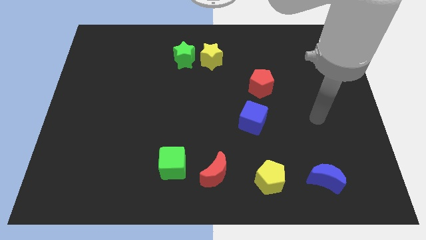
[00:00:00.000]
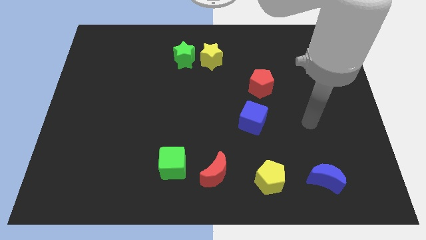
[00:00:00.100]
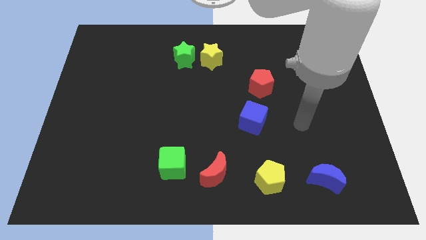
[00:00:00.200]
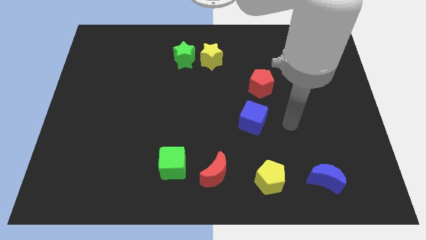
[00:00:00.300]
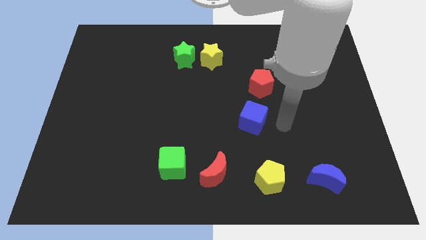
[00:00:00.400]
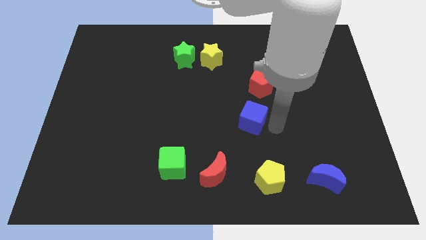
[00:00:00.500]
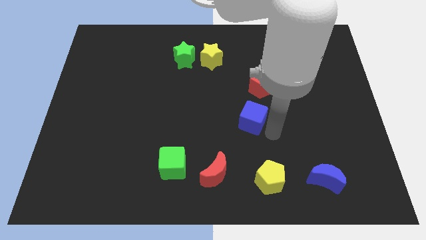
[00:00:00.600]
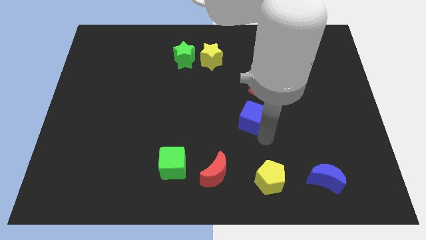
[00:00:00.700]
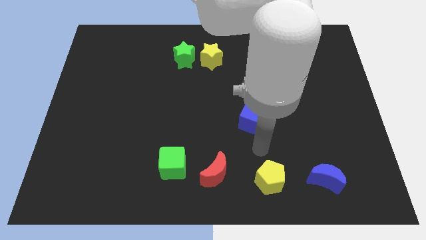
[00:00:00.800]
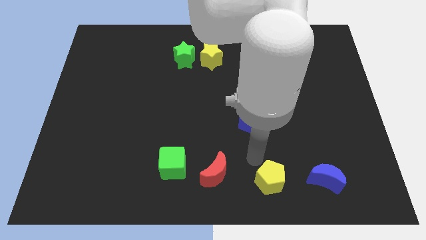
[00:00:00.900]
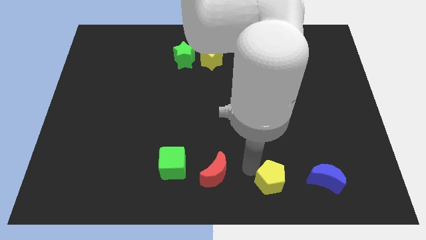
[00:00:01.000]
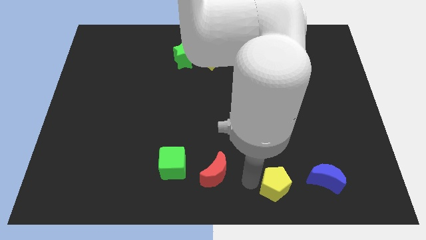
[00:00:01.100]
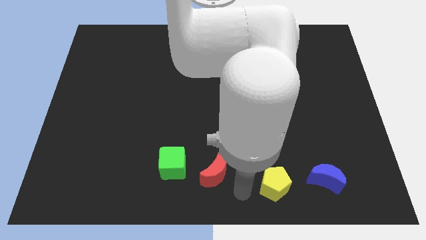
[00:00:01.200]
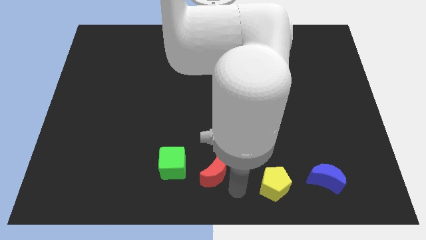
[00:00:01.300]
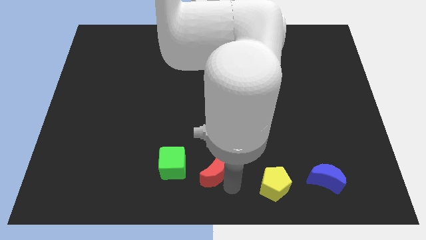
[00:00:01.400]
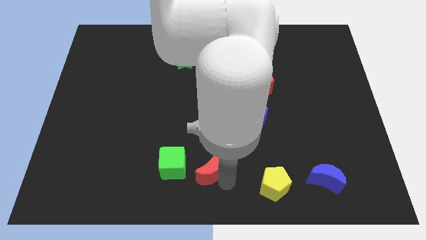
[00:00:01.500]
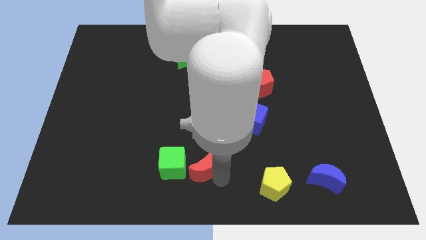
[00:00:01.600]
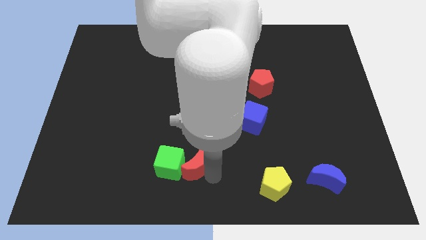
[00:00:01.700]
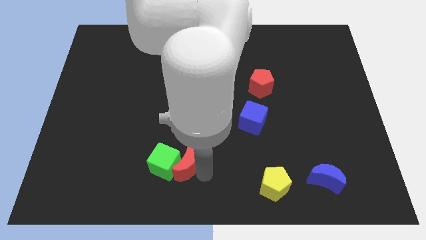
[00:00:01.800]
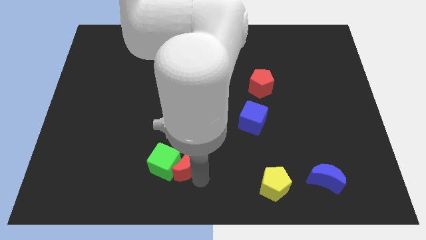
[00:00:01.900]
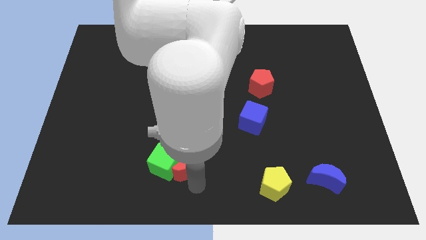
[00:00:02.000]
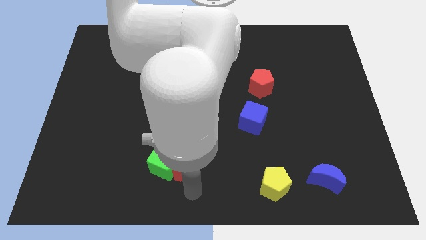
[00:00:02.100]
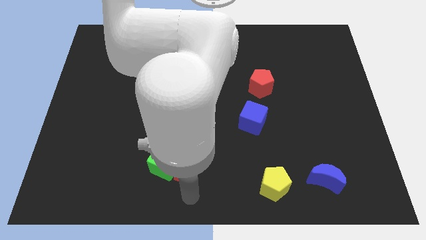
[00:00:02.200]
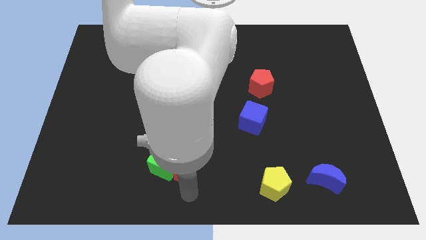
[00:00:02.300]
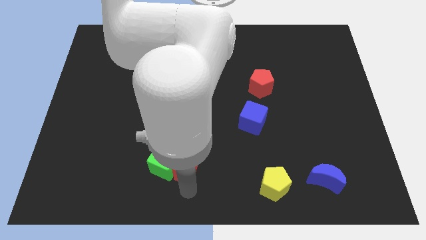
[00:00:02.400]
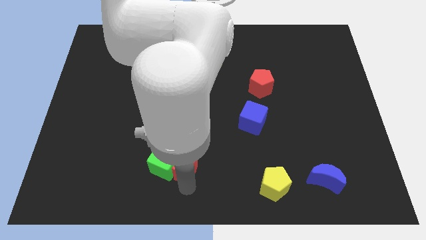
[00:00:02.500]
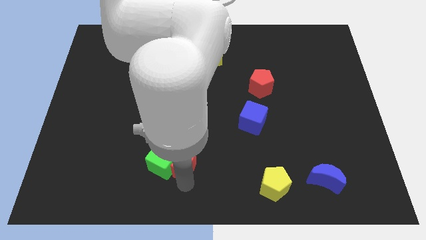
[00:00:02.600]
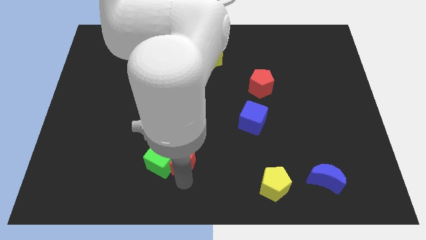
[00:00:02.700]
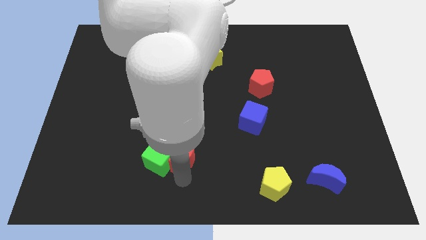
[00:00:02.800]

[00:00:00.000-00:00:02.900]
slide the red moon a bit upwards and left diagonally

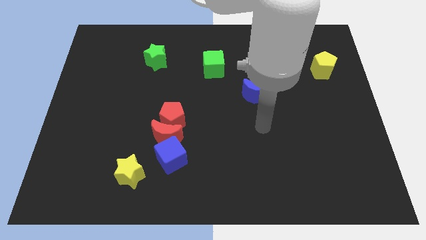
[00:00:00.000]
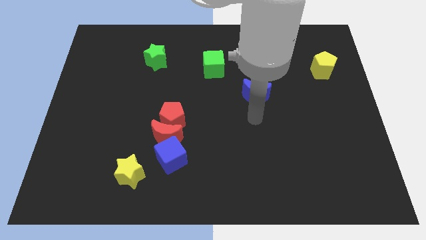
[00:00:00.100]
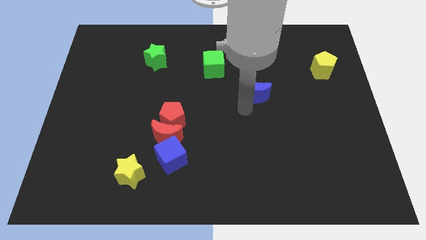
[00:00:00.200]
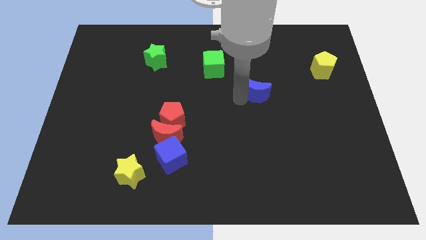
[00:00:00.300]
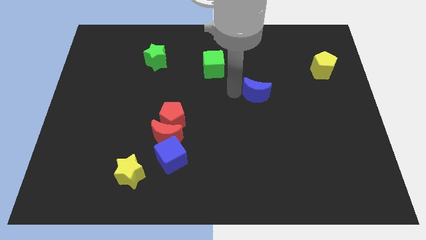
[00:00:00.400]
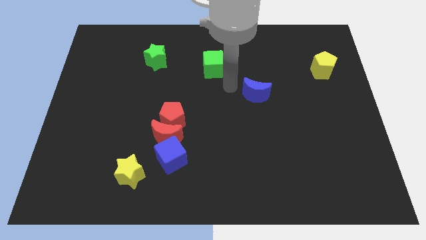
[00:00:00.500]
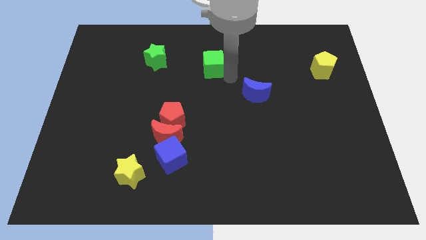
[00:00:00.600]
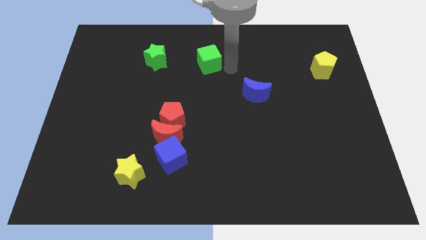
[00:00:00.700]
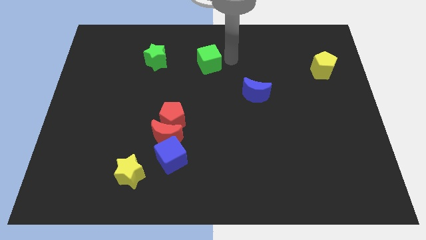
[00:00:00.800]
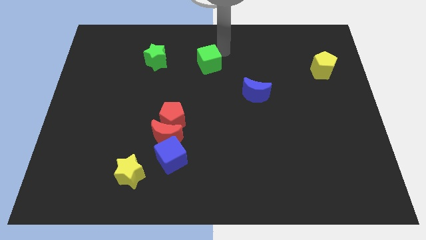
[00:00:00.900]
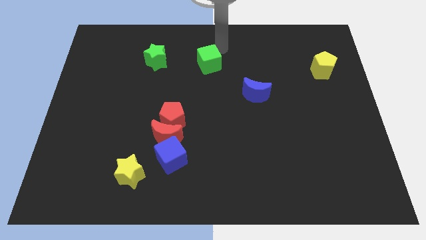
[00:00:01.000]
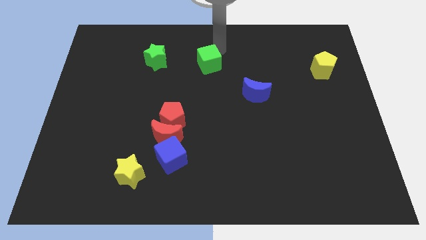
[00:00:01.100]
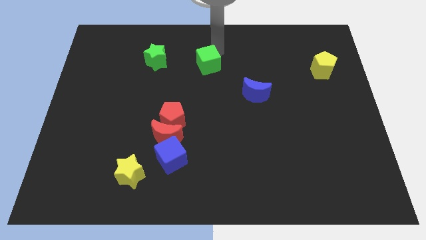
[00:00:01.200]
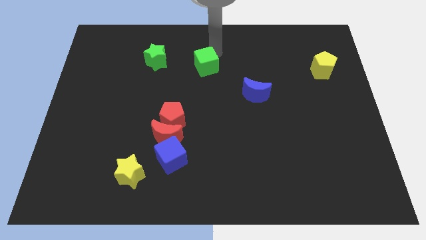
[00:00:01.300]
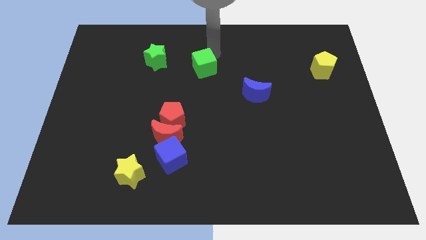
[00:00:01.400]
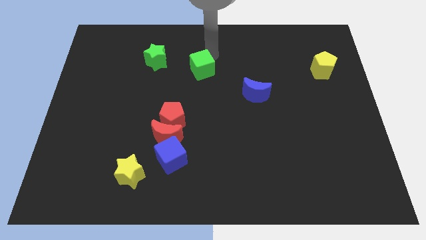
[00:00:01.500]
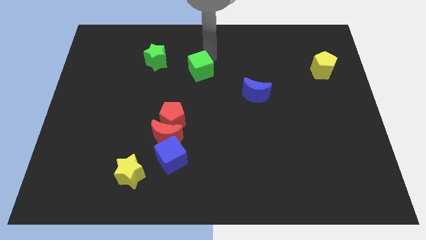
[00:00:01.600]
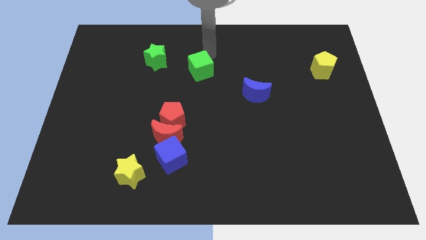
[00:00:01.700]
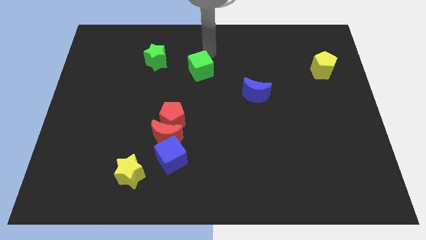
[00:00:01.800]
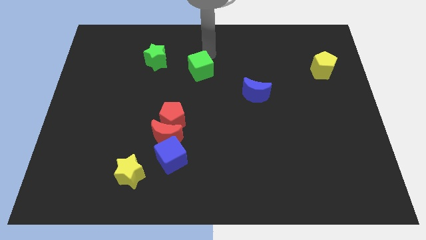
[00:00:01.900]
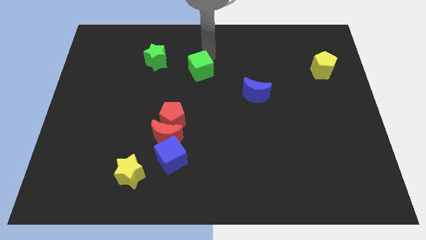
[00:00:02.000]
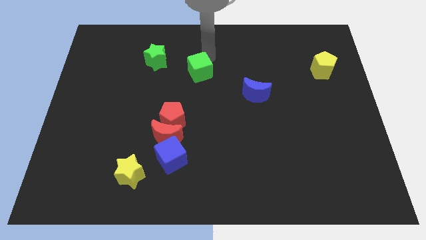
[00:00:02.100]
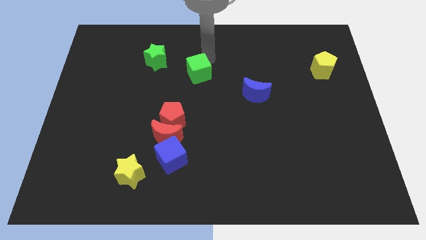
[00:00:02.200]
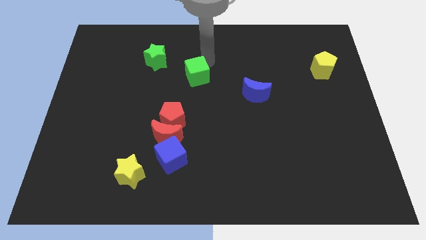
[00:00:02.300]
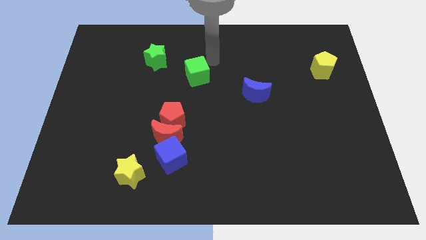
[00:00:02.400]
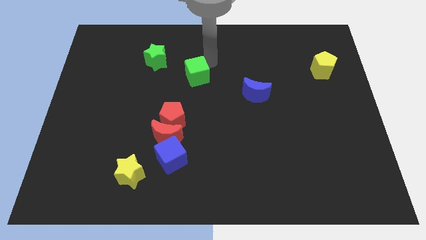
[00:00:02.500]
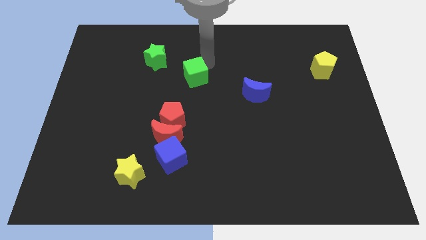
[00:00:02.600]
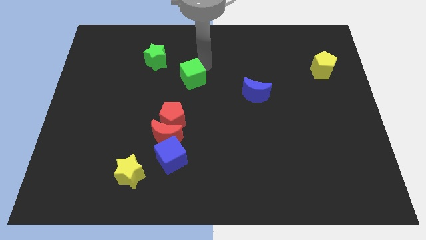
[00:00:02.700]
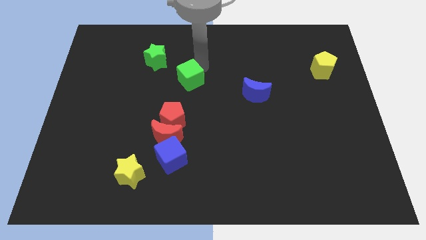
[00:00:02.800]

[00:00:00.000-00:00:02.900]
push the green cube a bit down and then to the left

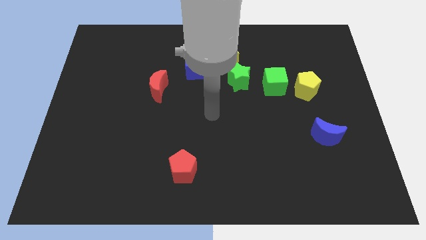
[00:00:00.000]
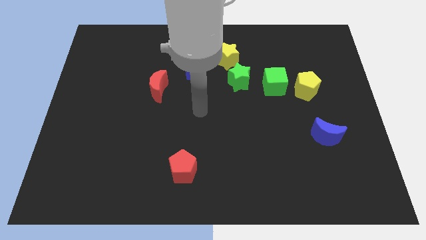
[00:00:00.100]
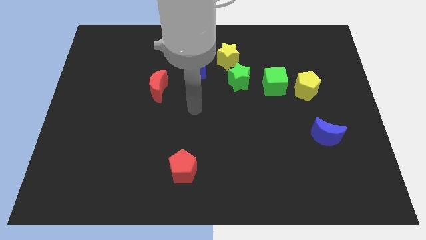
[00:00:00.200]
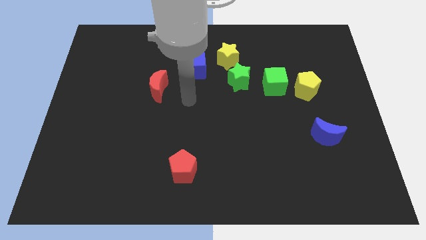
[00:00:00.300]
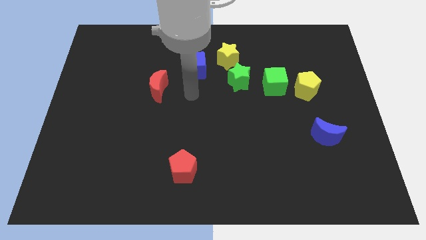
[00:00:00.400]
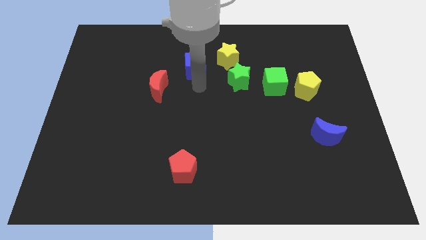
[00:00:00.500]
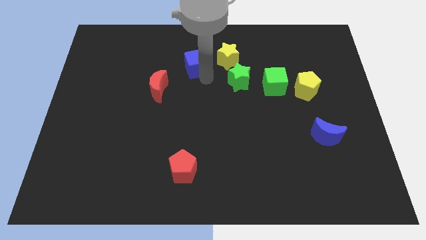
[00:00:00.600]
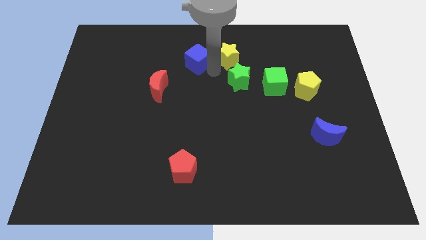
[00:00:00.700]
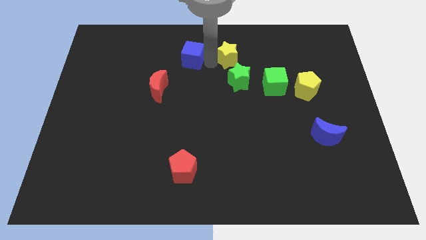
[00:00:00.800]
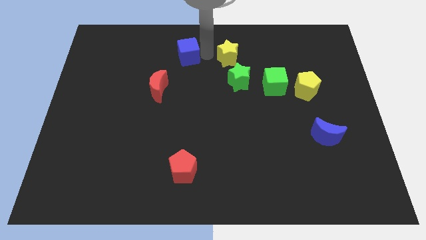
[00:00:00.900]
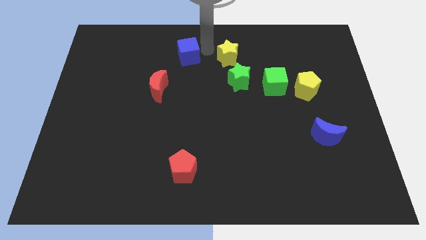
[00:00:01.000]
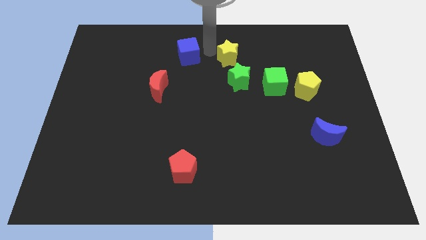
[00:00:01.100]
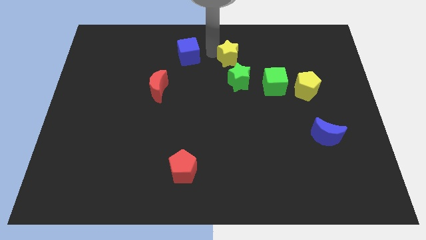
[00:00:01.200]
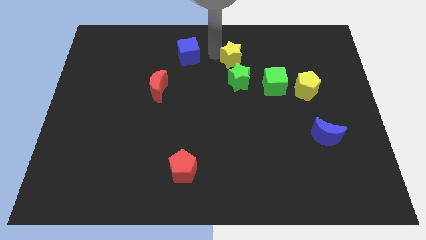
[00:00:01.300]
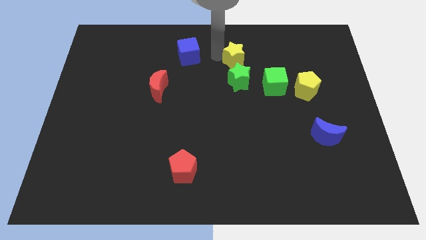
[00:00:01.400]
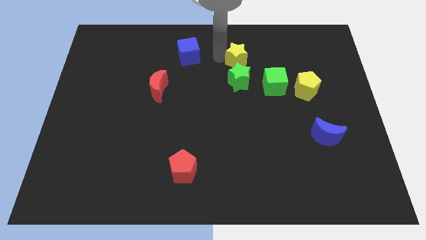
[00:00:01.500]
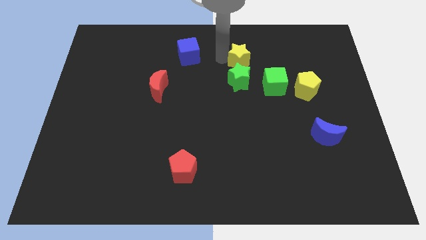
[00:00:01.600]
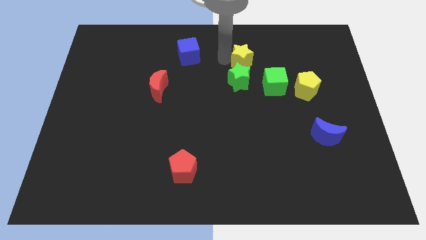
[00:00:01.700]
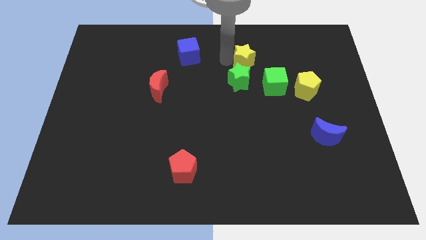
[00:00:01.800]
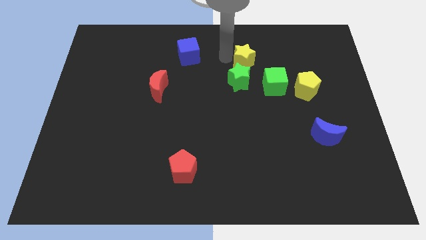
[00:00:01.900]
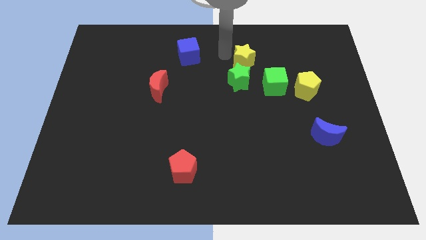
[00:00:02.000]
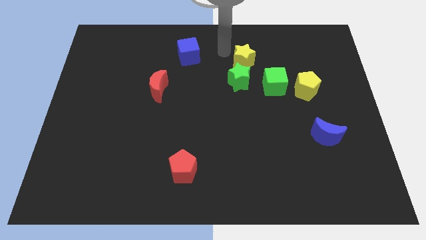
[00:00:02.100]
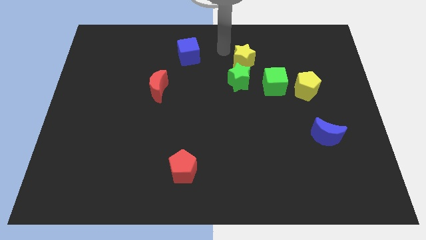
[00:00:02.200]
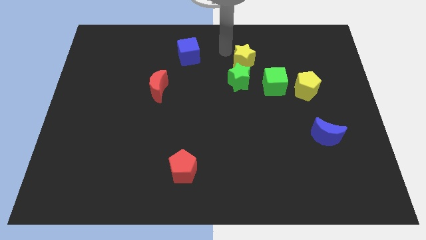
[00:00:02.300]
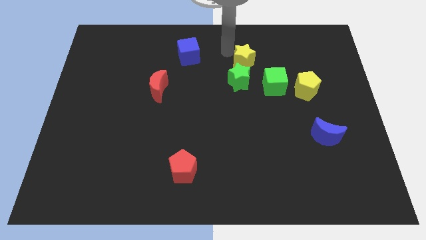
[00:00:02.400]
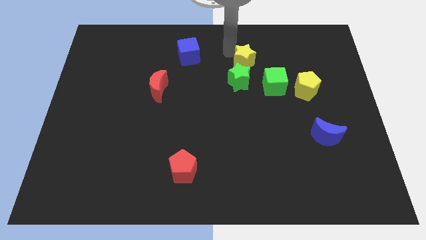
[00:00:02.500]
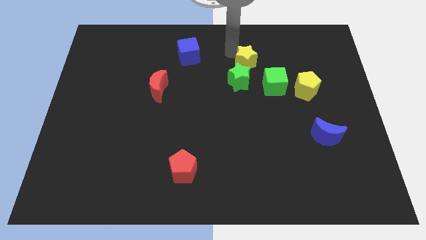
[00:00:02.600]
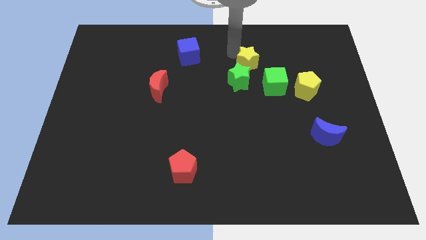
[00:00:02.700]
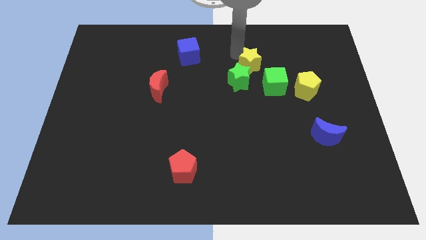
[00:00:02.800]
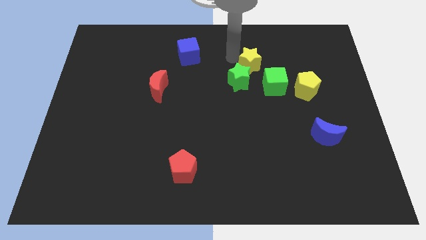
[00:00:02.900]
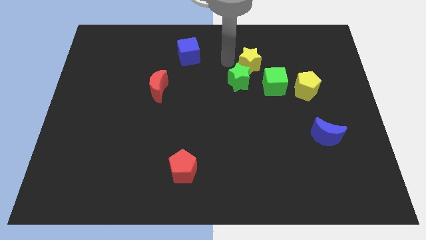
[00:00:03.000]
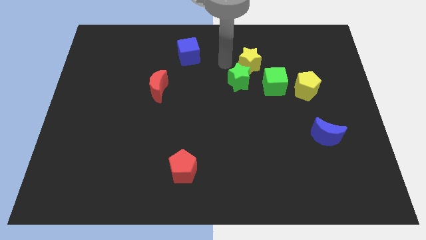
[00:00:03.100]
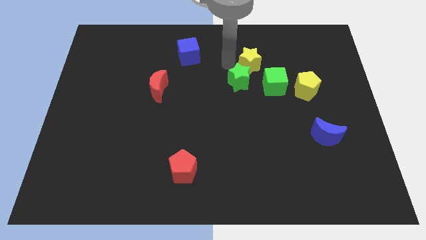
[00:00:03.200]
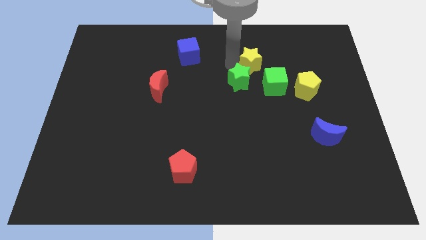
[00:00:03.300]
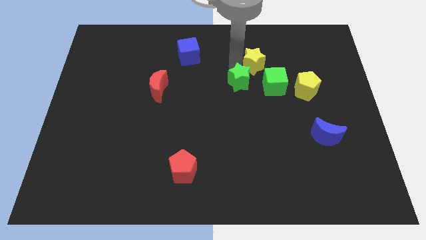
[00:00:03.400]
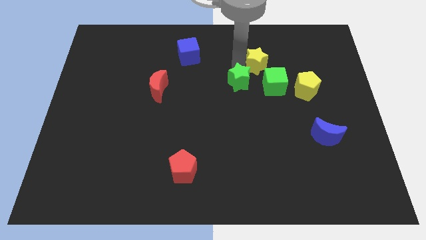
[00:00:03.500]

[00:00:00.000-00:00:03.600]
push the yellow star to the right a bit
